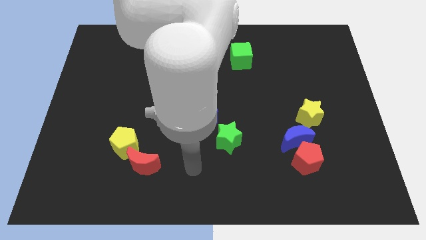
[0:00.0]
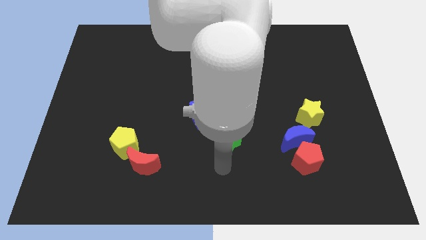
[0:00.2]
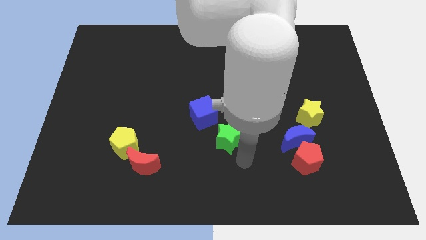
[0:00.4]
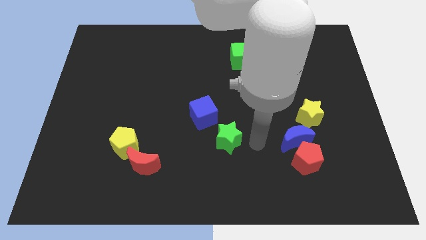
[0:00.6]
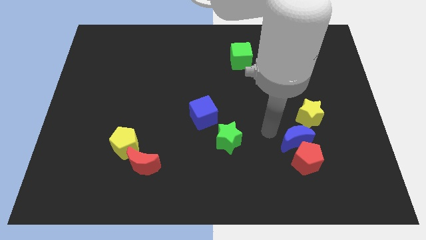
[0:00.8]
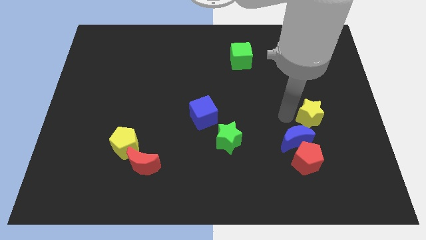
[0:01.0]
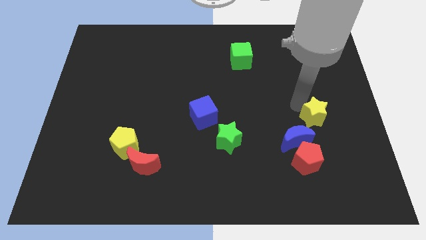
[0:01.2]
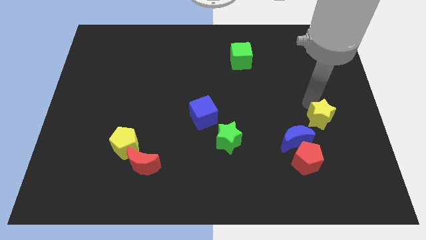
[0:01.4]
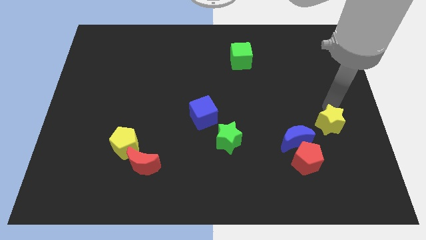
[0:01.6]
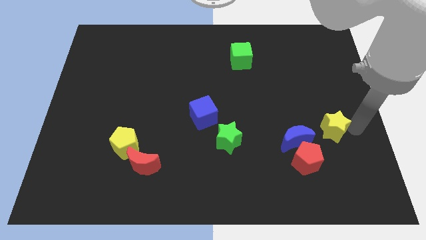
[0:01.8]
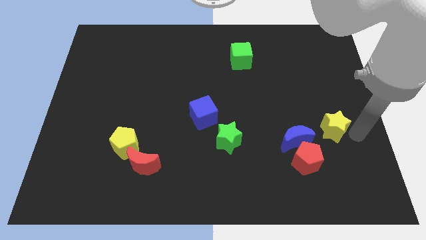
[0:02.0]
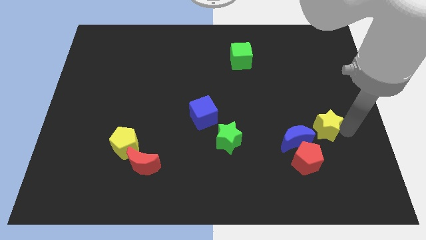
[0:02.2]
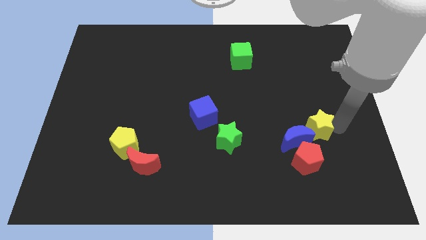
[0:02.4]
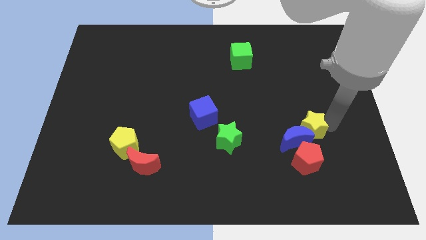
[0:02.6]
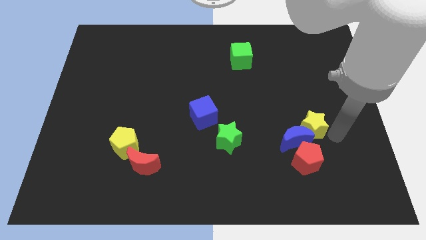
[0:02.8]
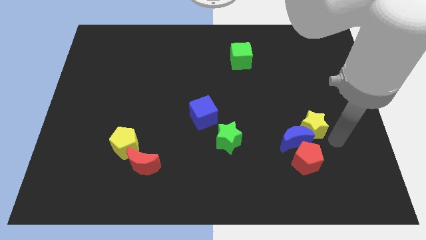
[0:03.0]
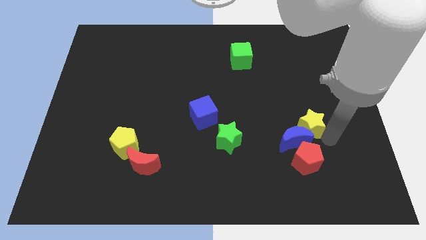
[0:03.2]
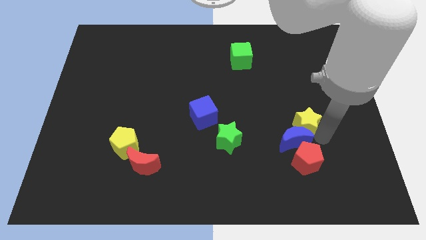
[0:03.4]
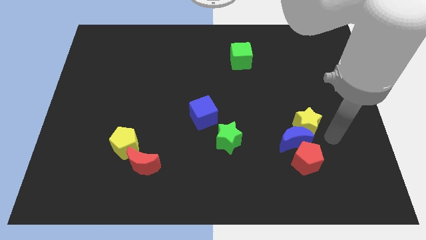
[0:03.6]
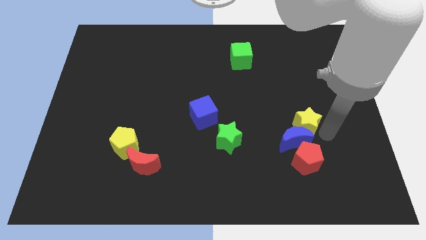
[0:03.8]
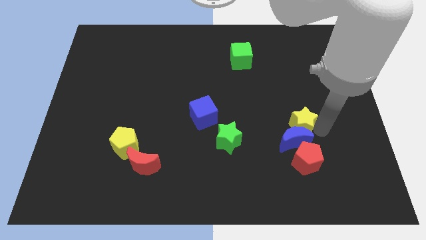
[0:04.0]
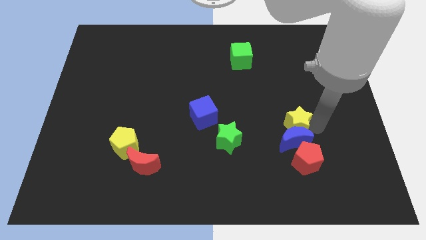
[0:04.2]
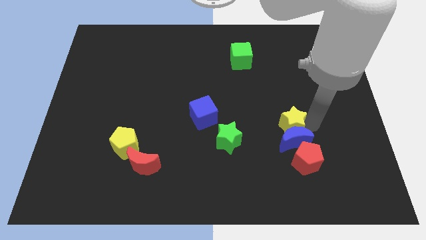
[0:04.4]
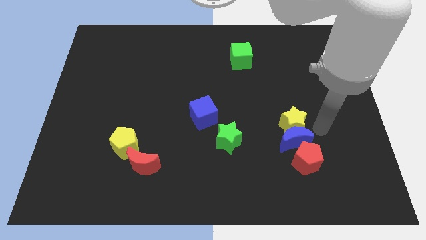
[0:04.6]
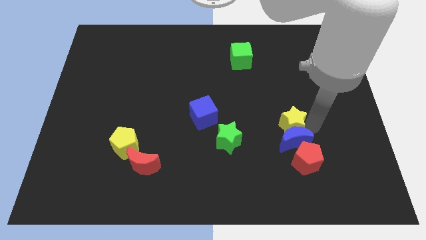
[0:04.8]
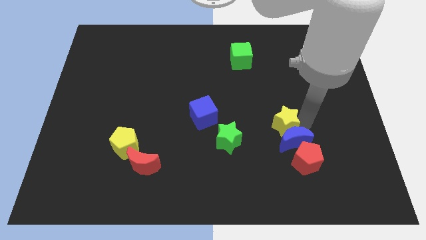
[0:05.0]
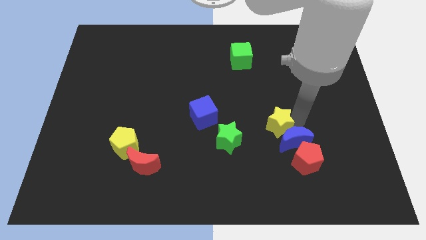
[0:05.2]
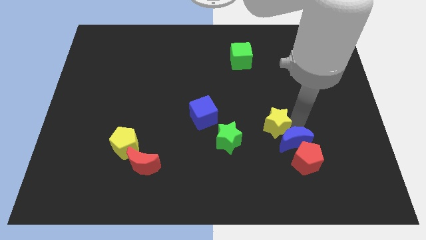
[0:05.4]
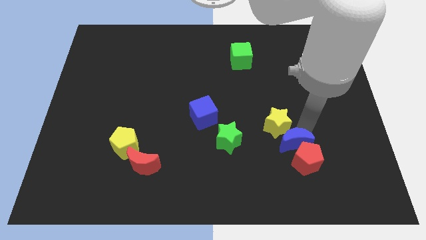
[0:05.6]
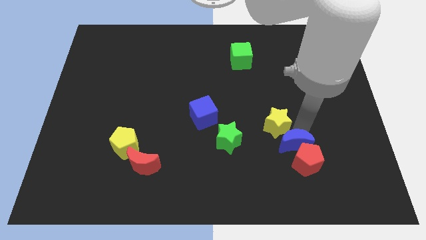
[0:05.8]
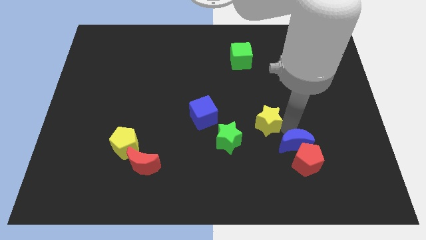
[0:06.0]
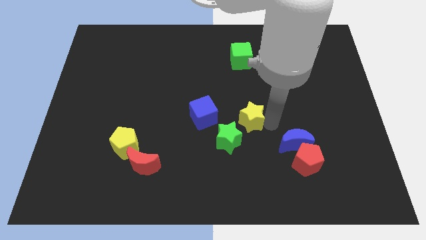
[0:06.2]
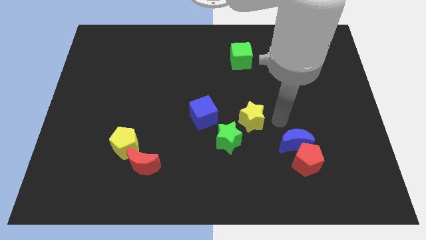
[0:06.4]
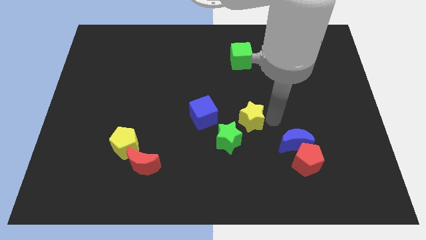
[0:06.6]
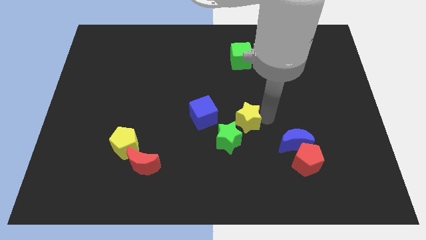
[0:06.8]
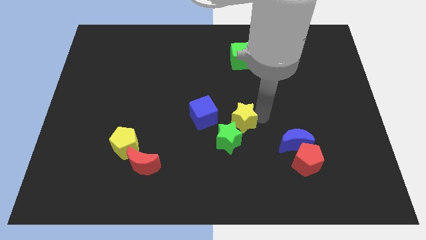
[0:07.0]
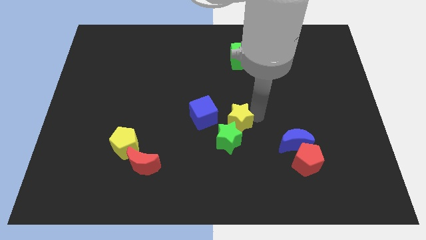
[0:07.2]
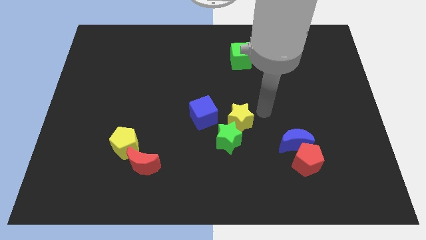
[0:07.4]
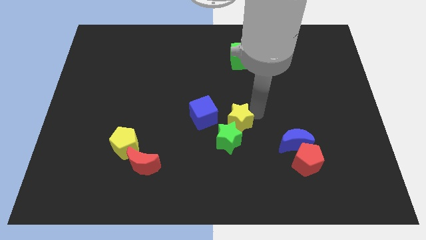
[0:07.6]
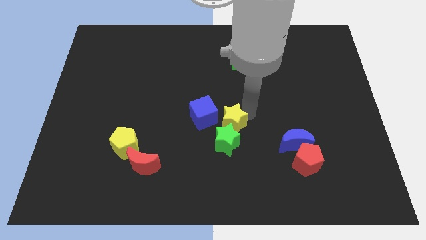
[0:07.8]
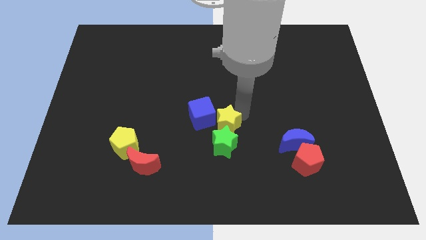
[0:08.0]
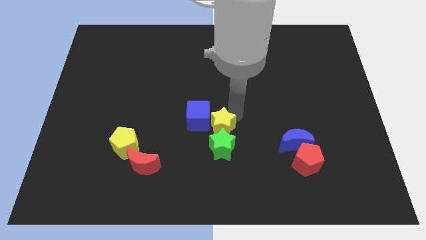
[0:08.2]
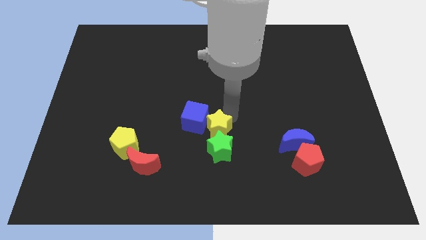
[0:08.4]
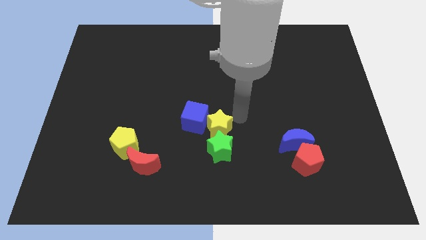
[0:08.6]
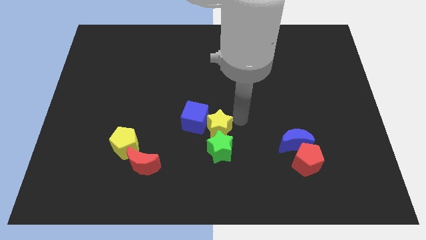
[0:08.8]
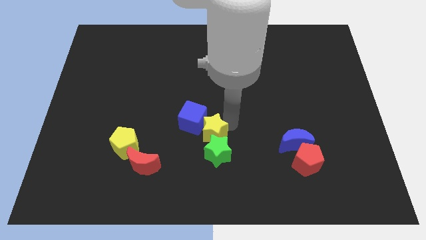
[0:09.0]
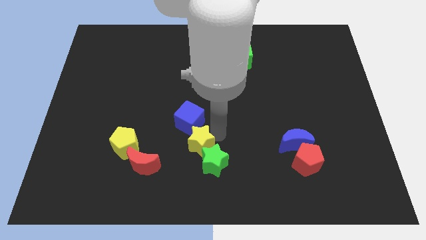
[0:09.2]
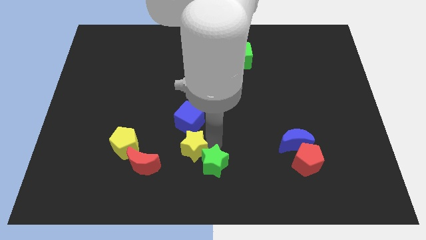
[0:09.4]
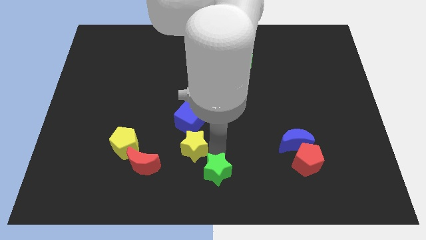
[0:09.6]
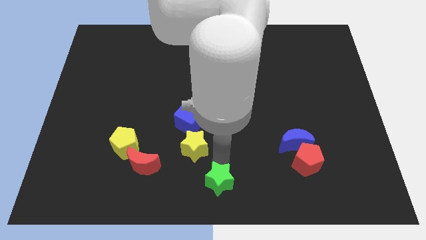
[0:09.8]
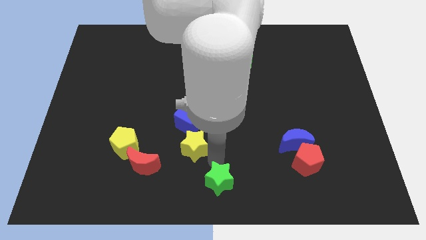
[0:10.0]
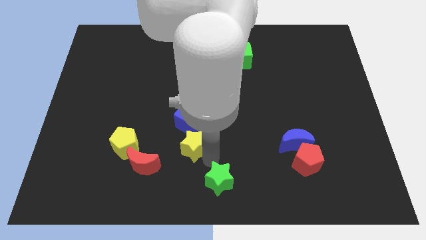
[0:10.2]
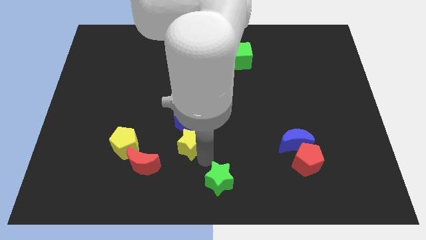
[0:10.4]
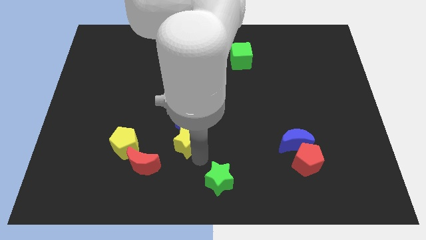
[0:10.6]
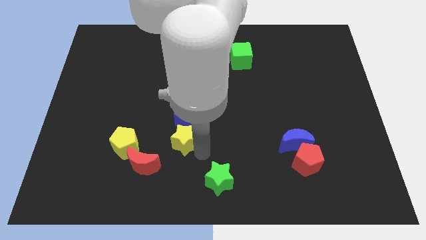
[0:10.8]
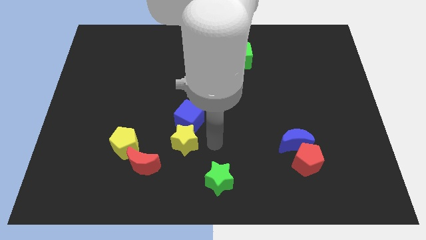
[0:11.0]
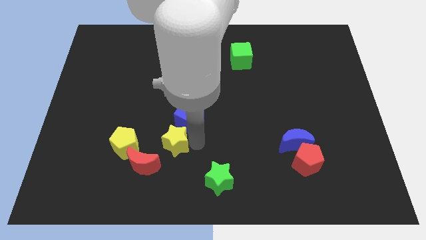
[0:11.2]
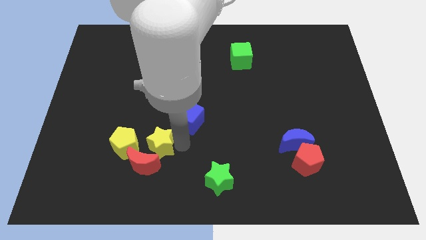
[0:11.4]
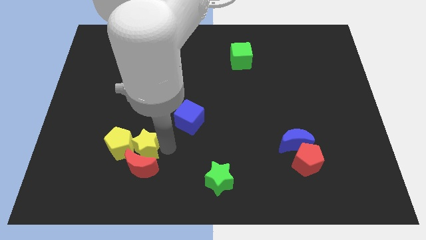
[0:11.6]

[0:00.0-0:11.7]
push the yellow star next to the yellow pentagon

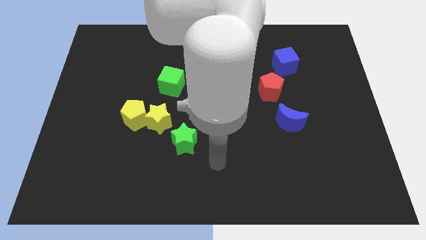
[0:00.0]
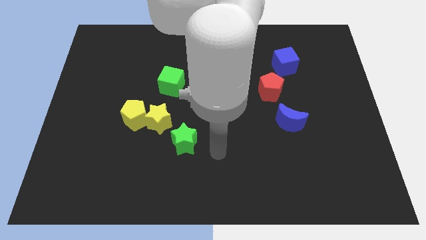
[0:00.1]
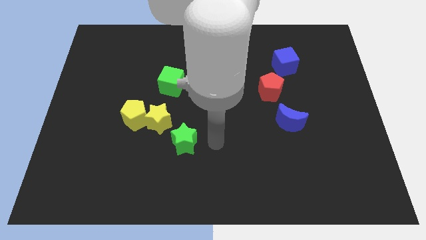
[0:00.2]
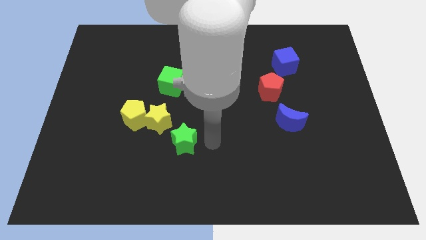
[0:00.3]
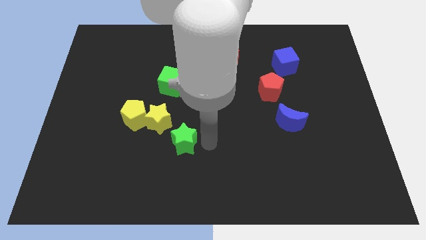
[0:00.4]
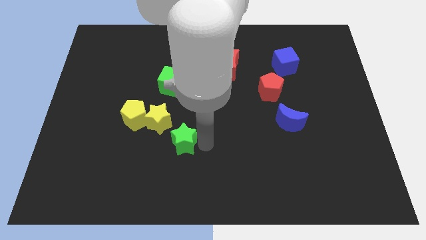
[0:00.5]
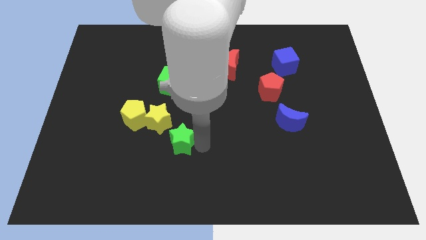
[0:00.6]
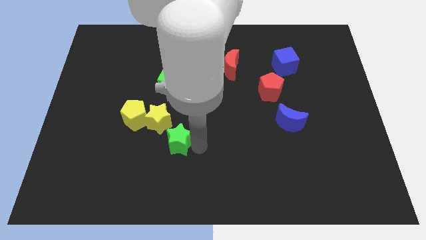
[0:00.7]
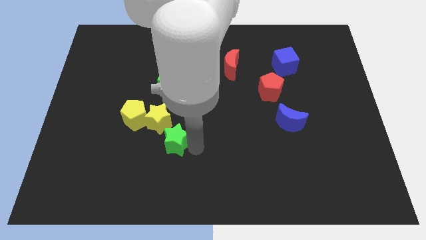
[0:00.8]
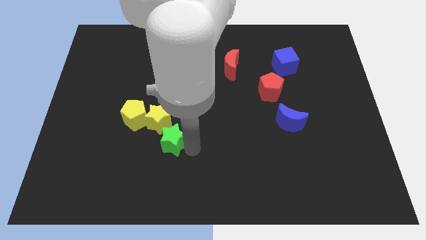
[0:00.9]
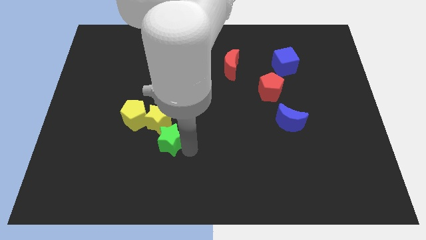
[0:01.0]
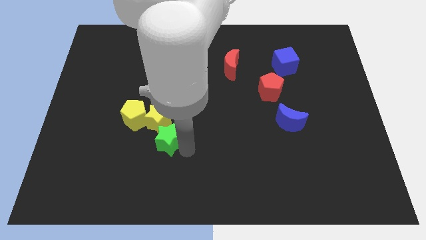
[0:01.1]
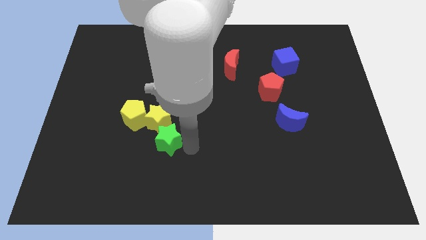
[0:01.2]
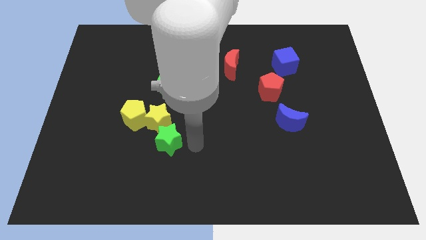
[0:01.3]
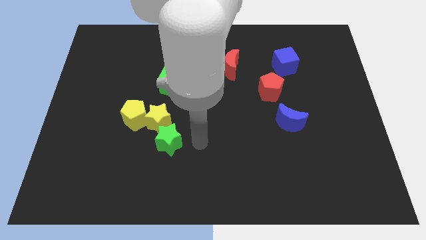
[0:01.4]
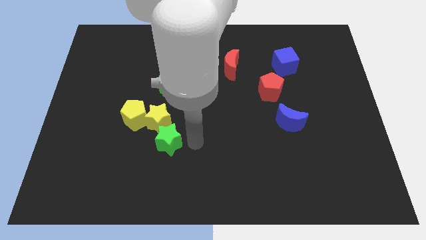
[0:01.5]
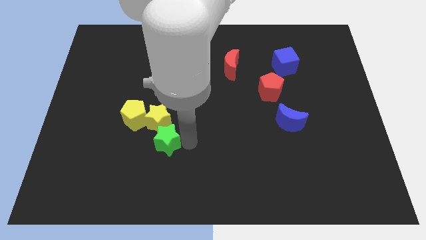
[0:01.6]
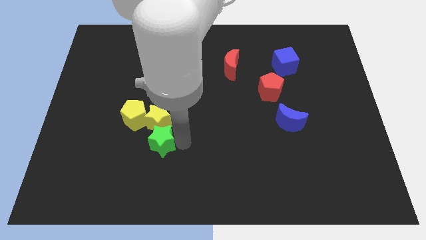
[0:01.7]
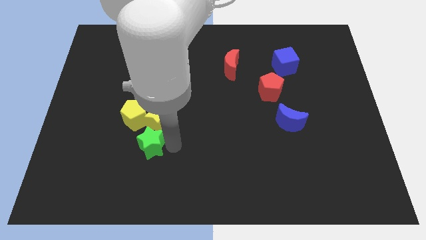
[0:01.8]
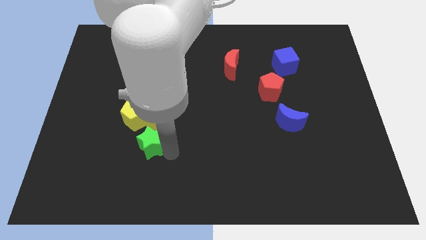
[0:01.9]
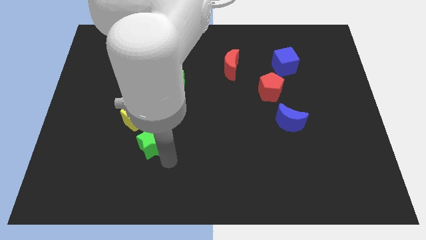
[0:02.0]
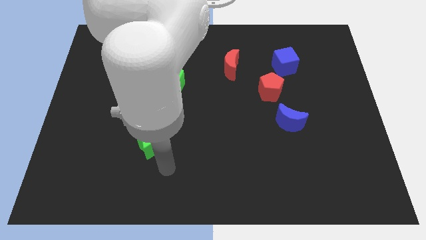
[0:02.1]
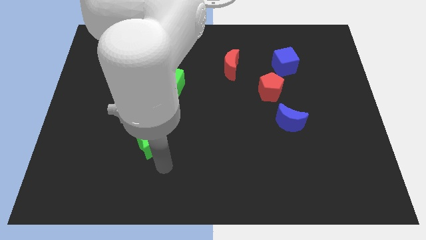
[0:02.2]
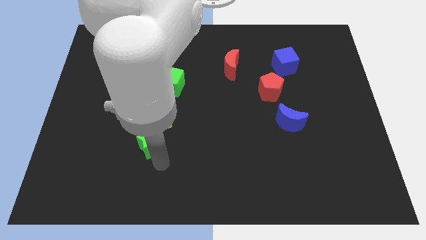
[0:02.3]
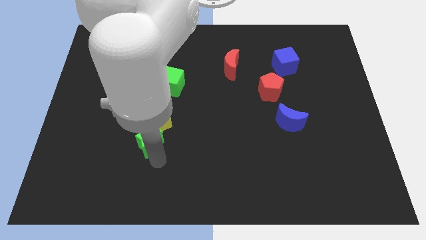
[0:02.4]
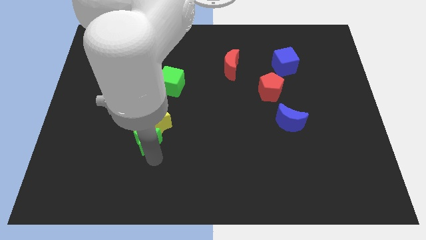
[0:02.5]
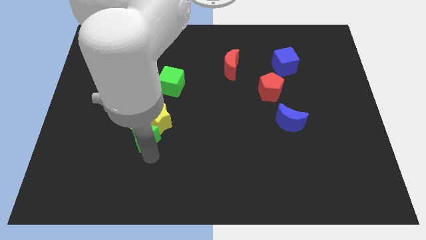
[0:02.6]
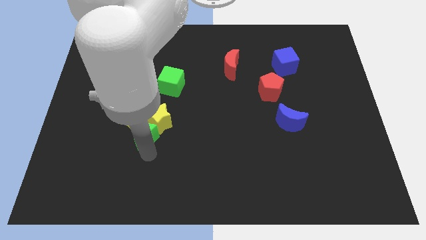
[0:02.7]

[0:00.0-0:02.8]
push the green star towards the yellow pentagon
